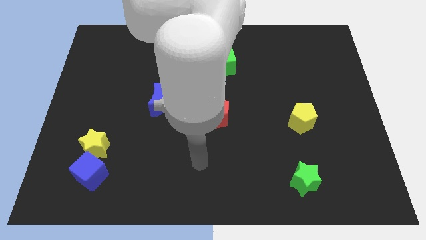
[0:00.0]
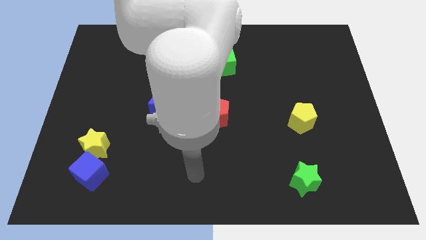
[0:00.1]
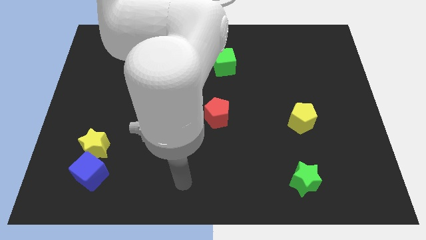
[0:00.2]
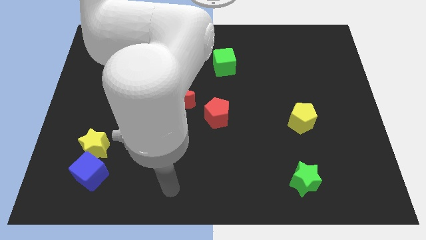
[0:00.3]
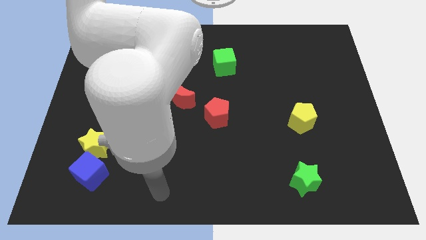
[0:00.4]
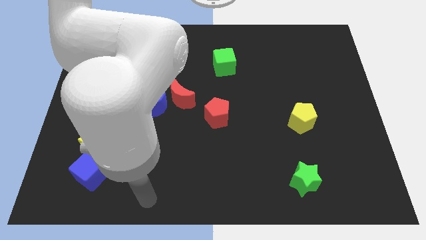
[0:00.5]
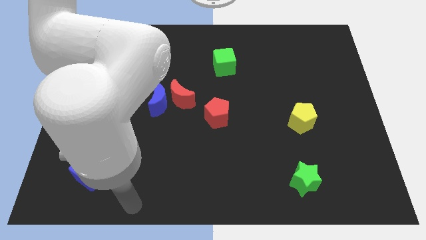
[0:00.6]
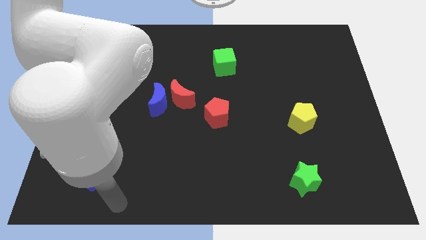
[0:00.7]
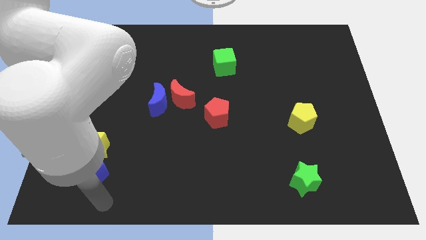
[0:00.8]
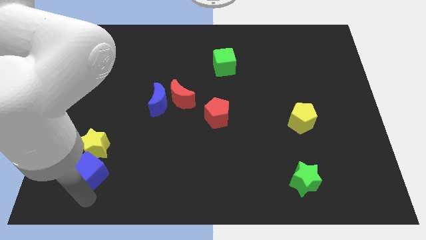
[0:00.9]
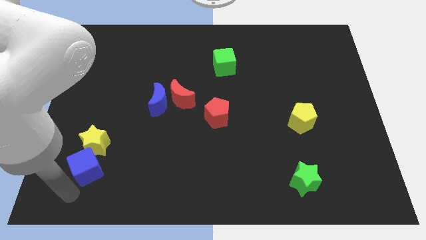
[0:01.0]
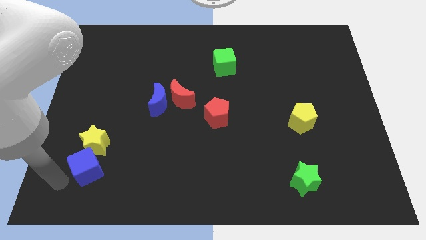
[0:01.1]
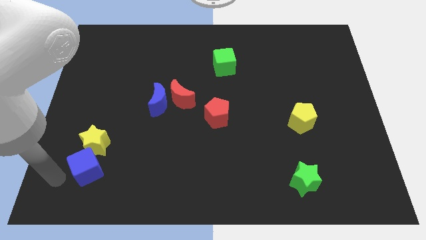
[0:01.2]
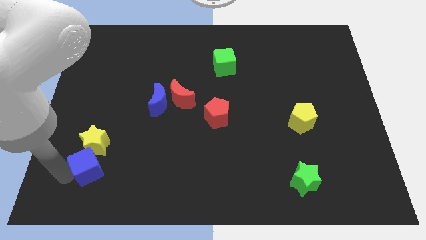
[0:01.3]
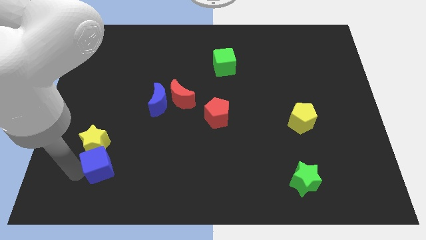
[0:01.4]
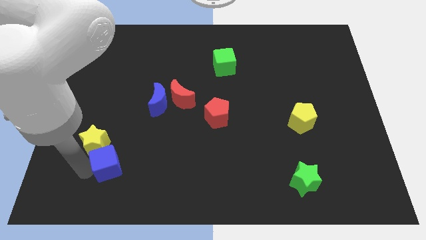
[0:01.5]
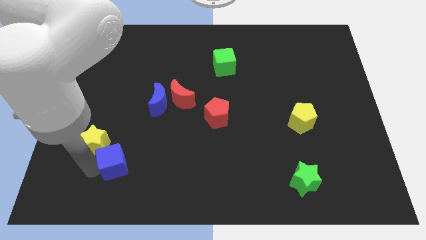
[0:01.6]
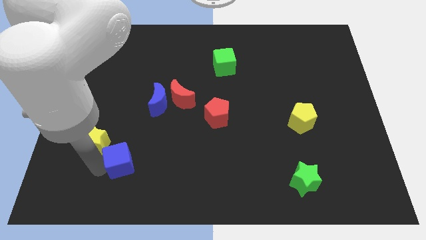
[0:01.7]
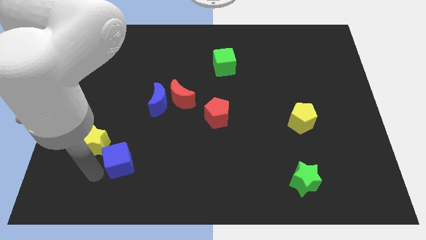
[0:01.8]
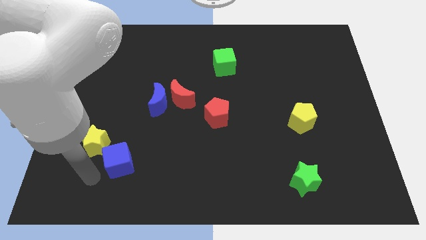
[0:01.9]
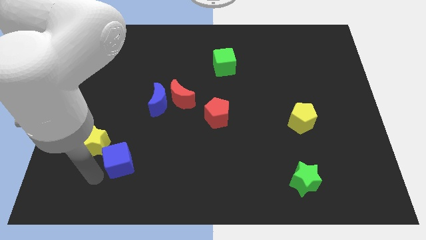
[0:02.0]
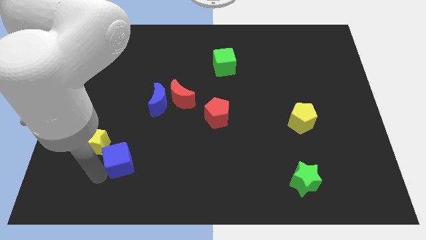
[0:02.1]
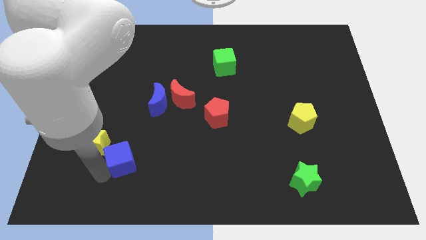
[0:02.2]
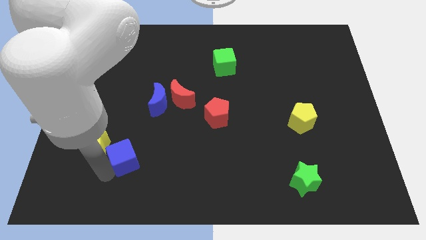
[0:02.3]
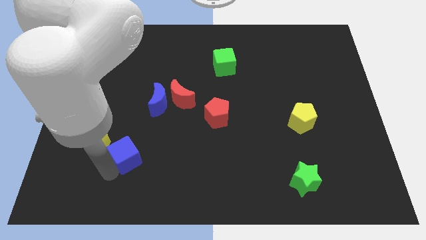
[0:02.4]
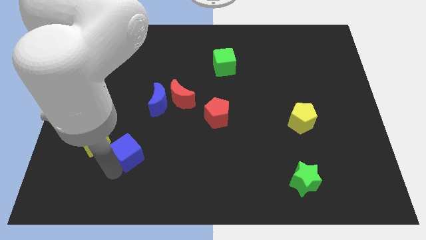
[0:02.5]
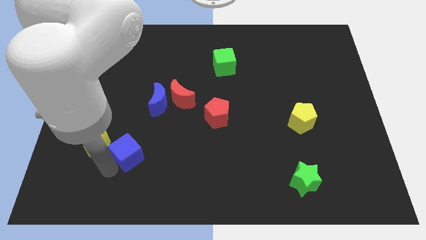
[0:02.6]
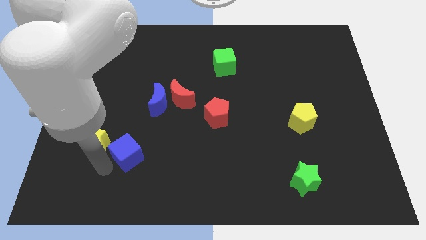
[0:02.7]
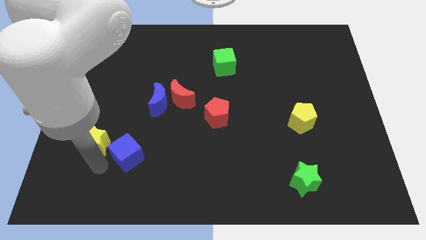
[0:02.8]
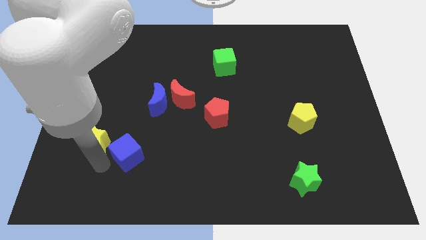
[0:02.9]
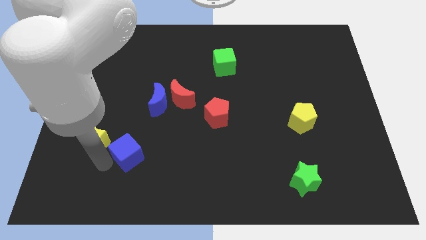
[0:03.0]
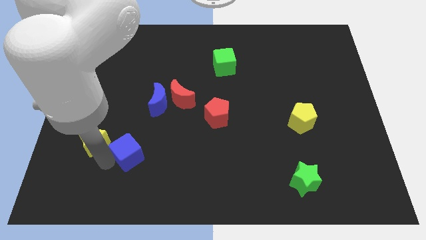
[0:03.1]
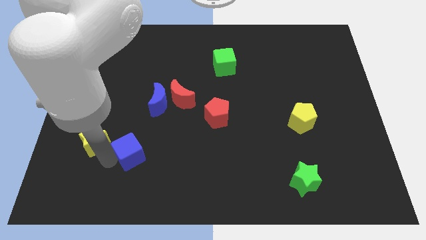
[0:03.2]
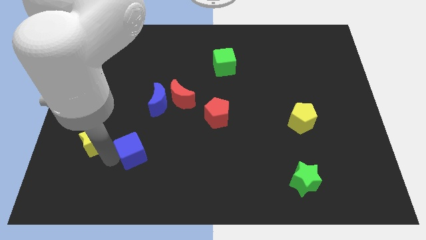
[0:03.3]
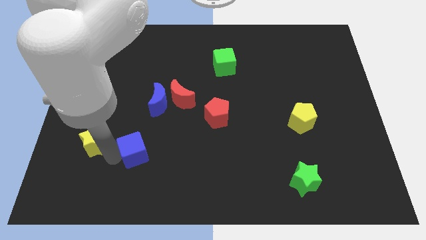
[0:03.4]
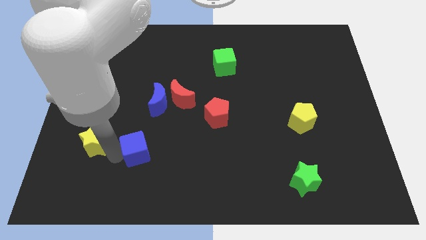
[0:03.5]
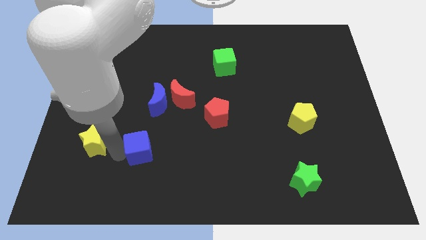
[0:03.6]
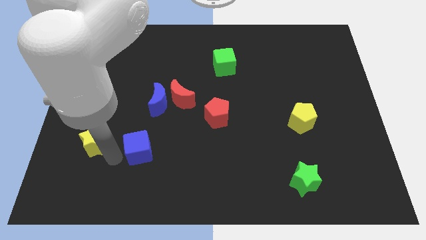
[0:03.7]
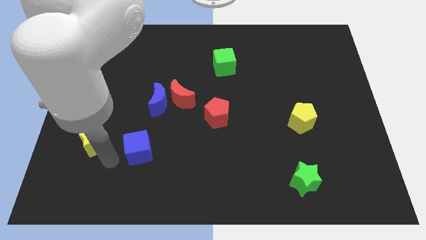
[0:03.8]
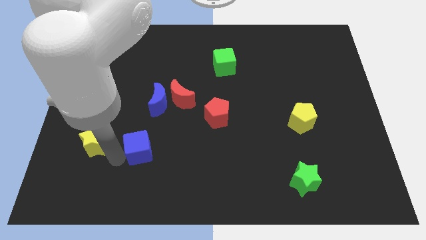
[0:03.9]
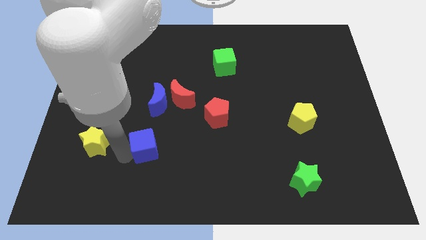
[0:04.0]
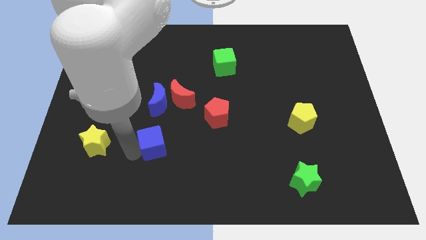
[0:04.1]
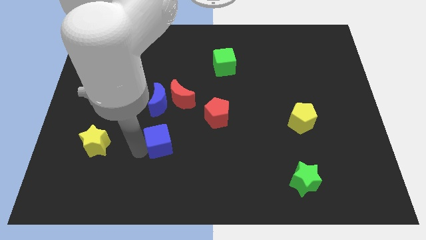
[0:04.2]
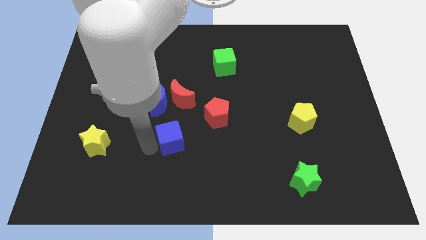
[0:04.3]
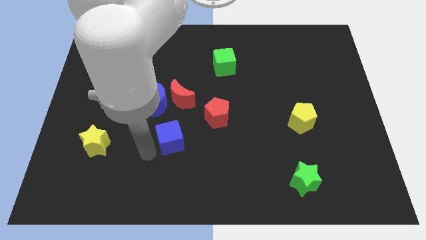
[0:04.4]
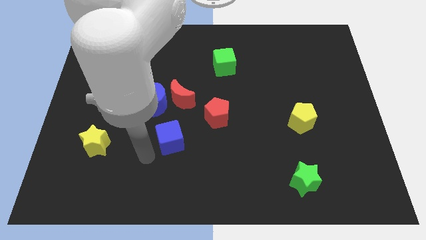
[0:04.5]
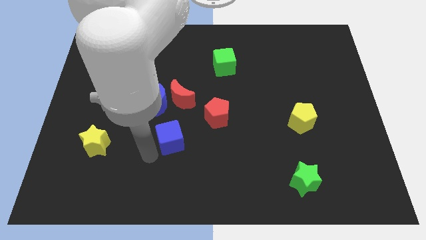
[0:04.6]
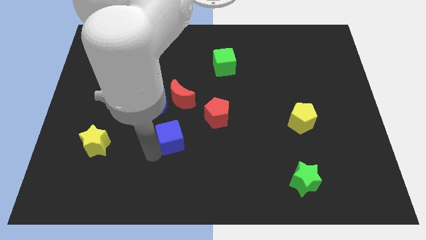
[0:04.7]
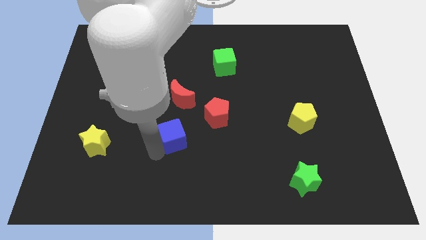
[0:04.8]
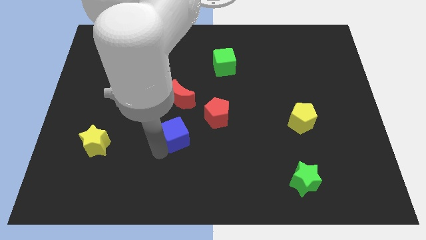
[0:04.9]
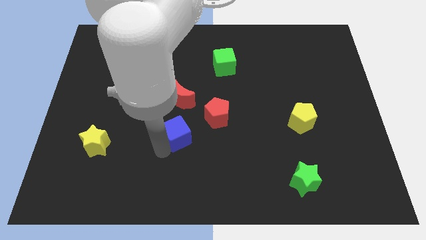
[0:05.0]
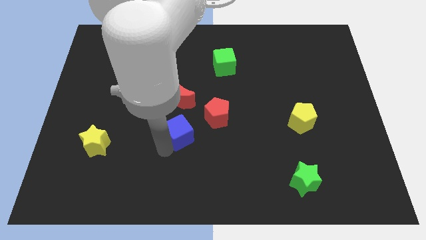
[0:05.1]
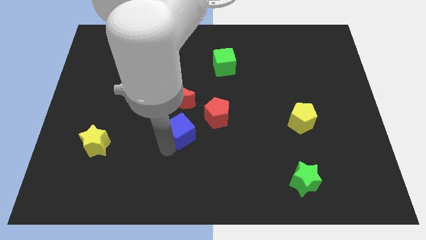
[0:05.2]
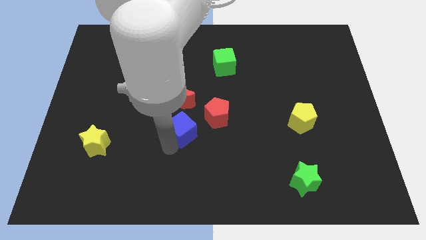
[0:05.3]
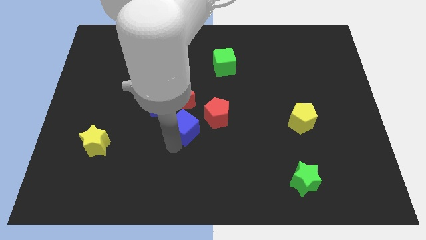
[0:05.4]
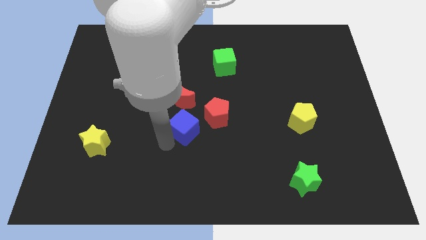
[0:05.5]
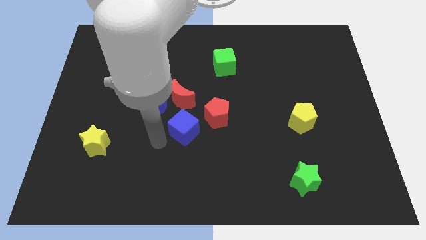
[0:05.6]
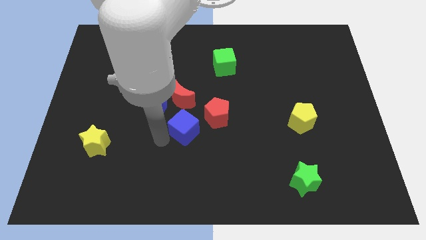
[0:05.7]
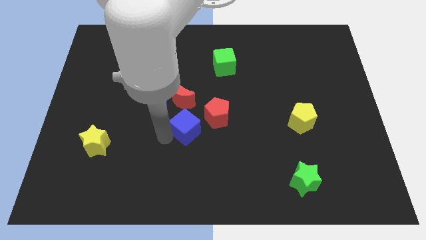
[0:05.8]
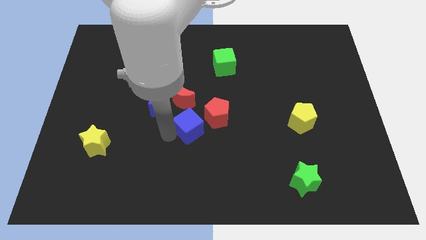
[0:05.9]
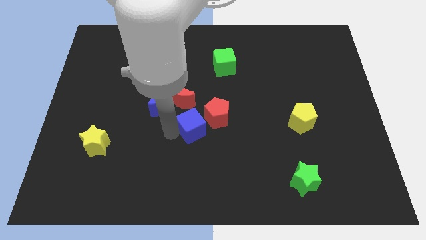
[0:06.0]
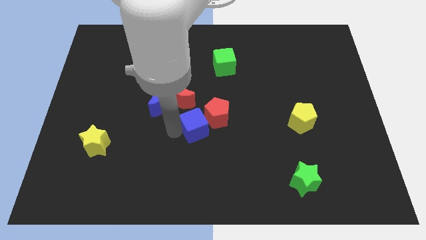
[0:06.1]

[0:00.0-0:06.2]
slide the blue cube next to the red pentagon

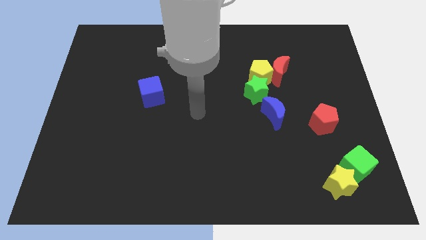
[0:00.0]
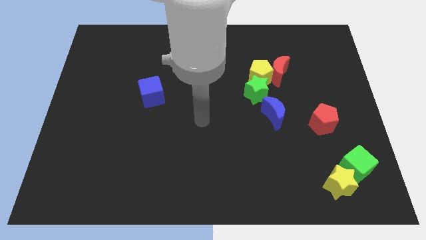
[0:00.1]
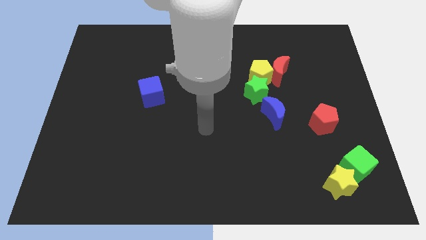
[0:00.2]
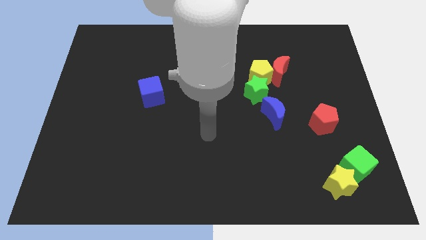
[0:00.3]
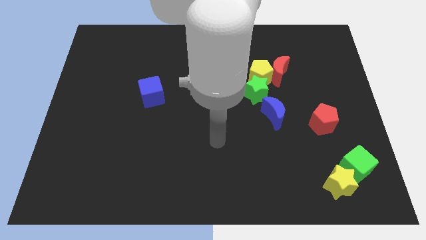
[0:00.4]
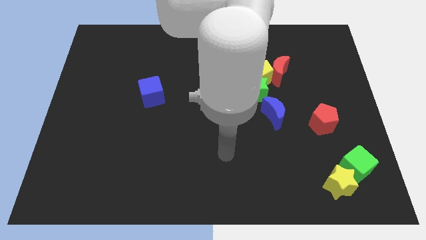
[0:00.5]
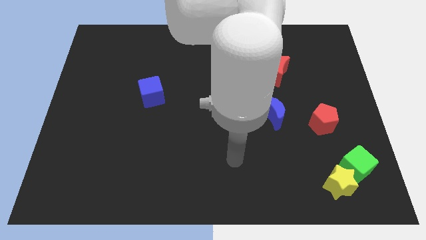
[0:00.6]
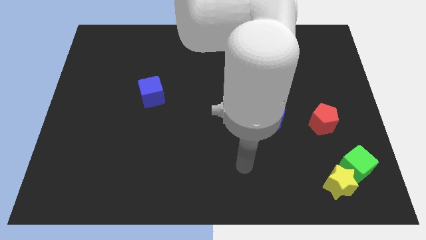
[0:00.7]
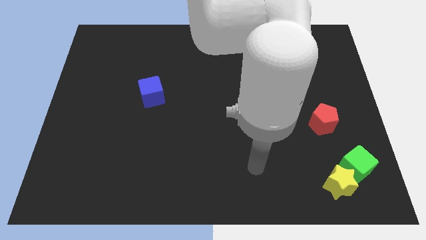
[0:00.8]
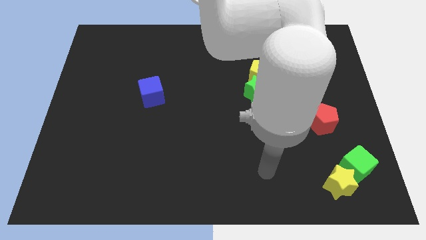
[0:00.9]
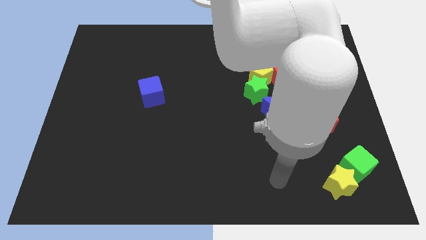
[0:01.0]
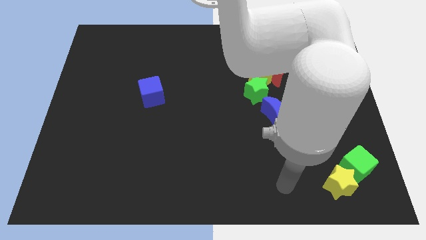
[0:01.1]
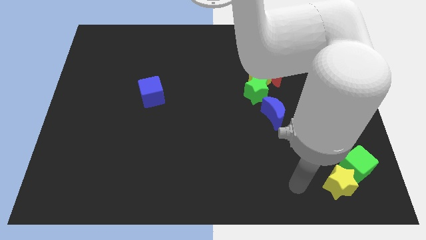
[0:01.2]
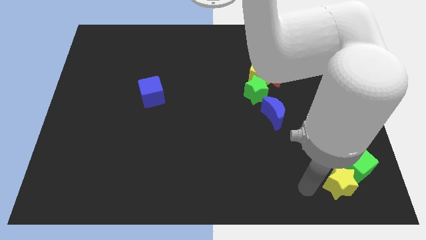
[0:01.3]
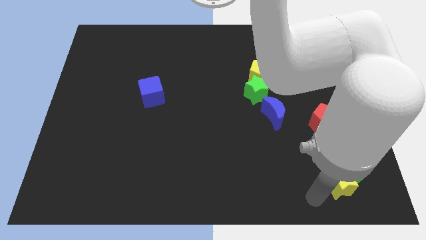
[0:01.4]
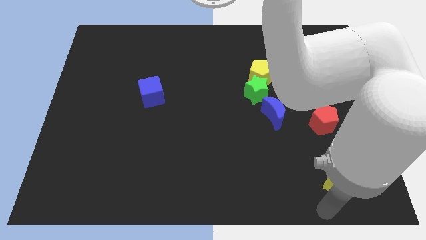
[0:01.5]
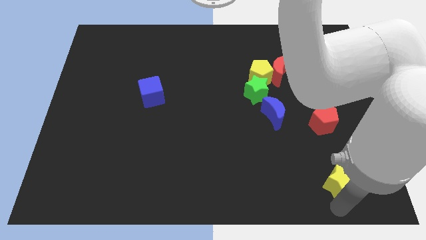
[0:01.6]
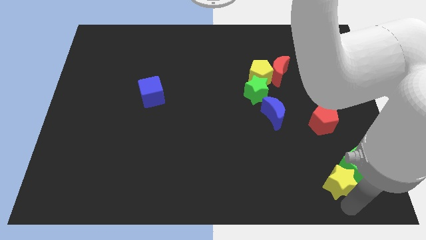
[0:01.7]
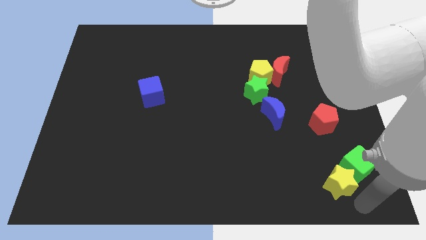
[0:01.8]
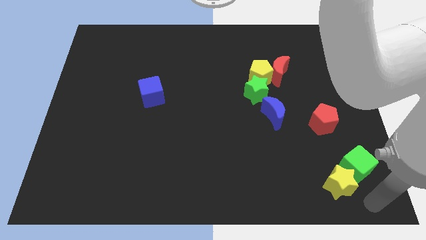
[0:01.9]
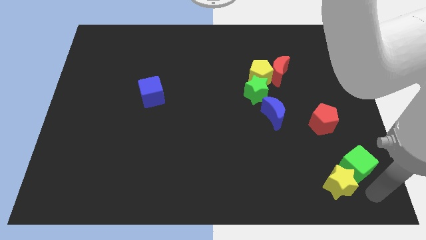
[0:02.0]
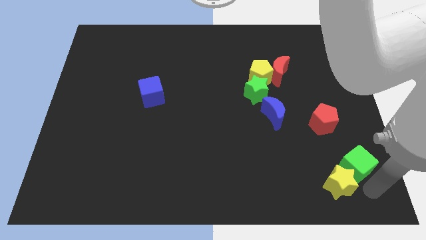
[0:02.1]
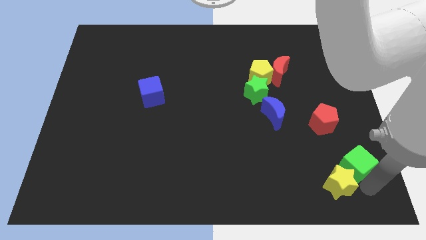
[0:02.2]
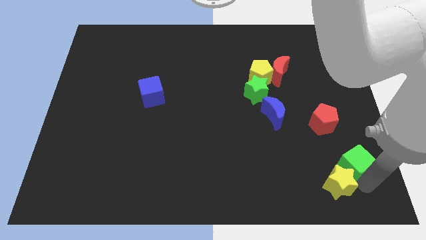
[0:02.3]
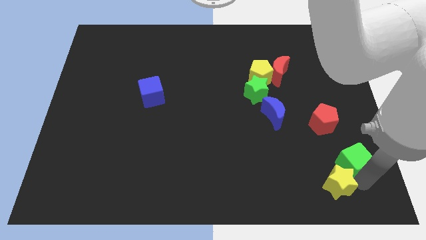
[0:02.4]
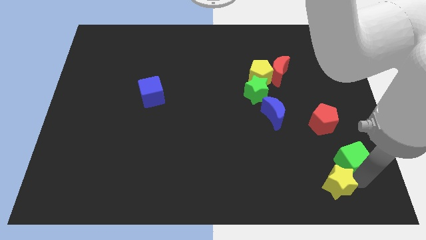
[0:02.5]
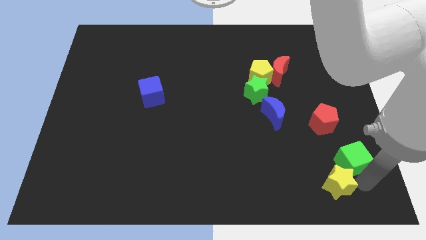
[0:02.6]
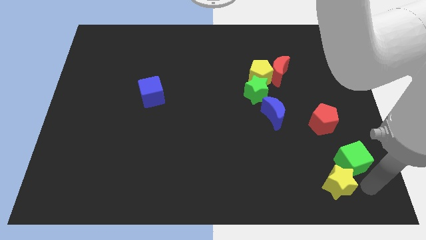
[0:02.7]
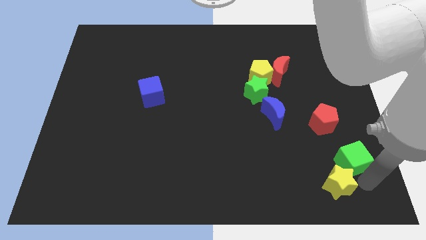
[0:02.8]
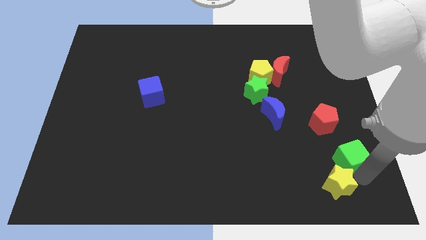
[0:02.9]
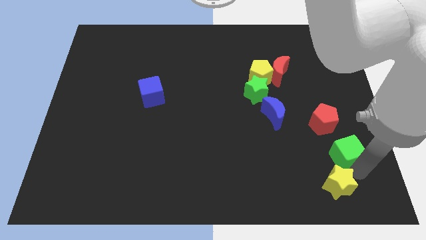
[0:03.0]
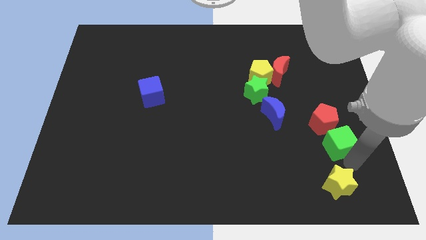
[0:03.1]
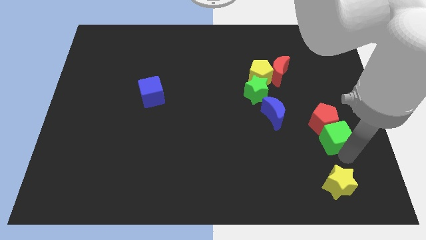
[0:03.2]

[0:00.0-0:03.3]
push the green cube towards the red pentagon
